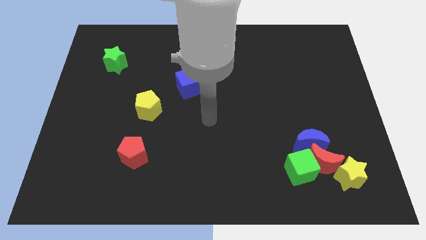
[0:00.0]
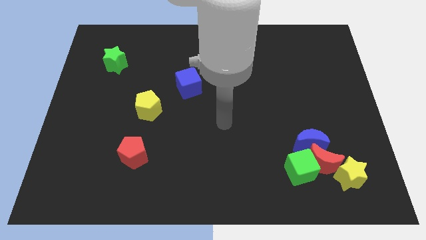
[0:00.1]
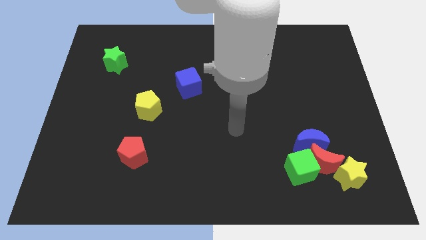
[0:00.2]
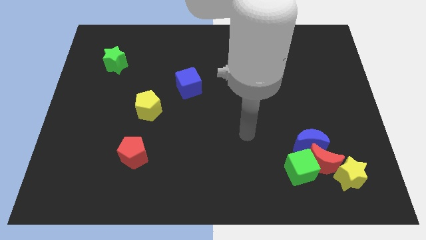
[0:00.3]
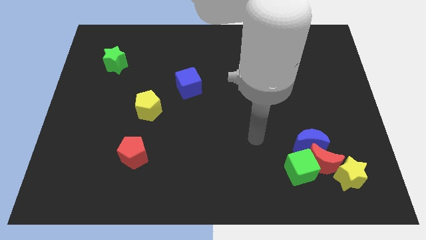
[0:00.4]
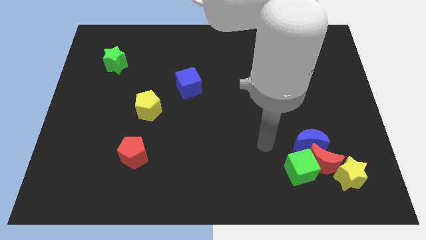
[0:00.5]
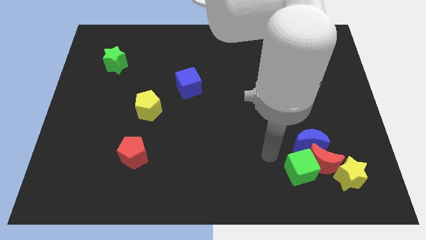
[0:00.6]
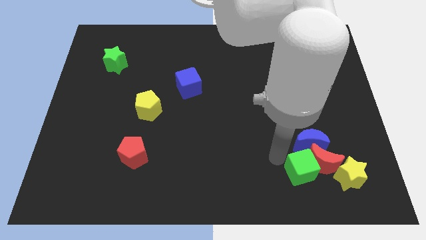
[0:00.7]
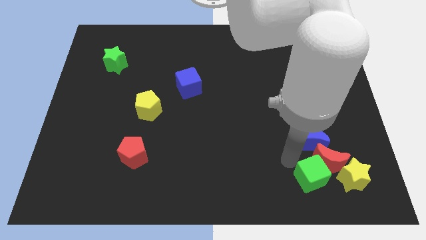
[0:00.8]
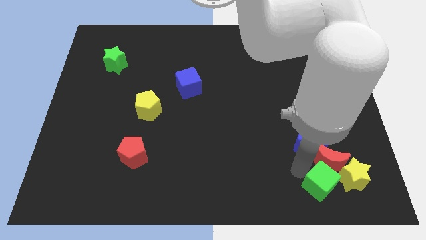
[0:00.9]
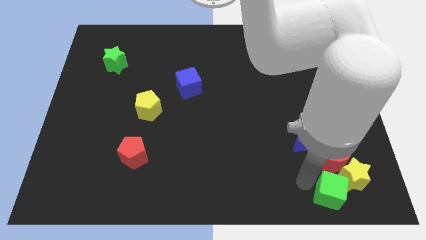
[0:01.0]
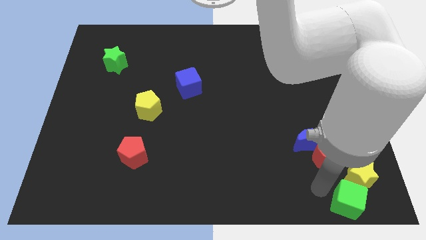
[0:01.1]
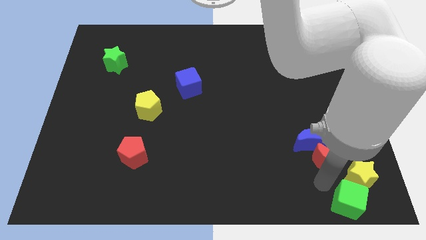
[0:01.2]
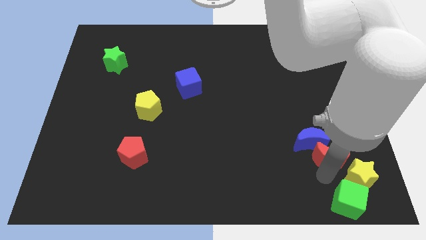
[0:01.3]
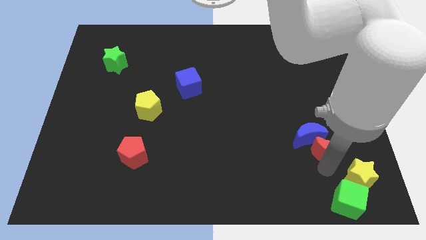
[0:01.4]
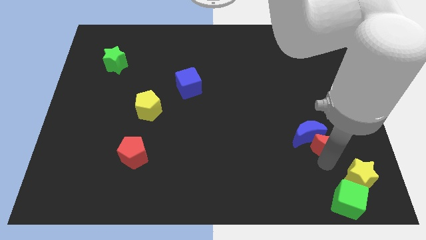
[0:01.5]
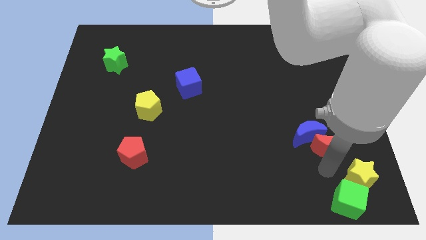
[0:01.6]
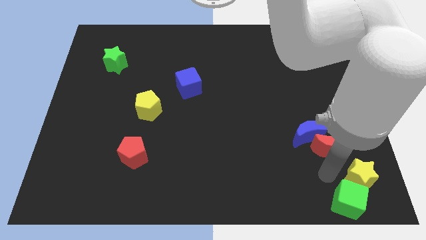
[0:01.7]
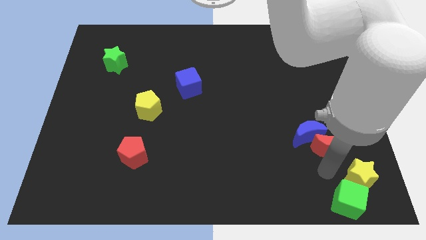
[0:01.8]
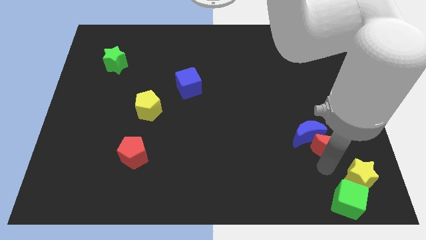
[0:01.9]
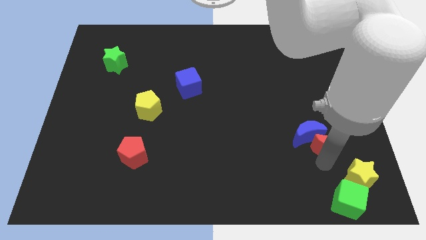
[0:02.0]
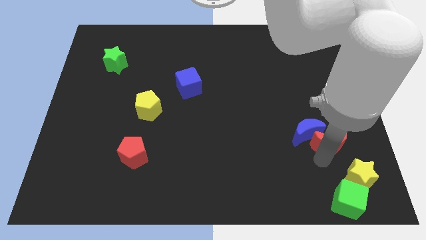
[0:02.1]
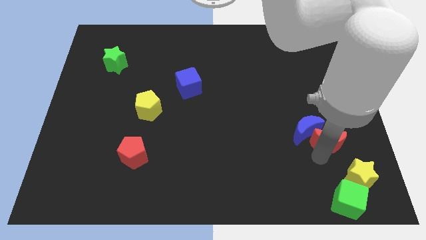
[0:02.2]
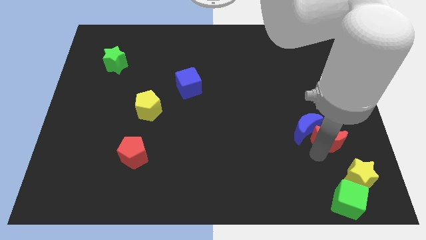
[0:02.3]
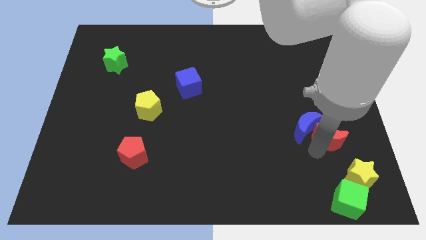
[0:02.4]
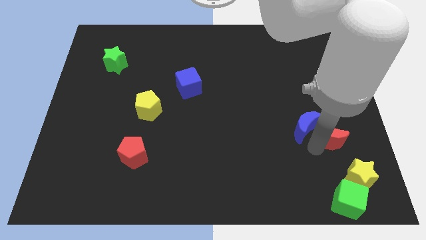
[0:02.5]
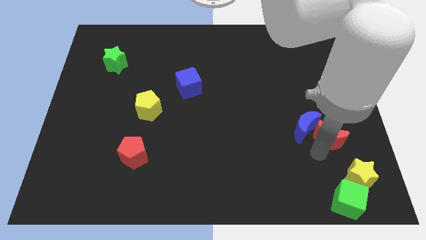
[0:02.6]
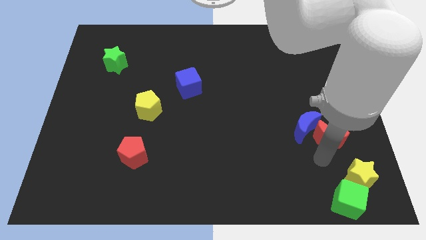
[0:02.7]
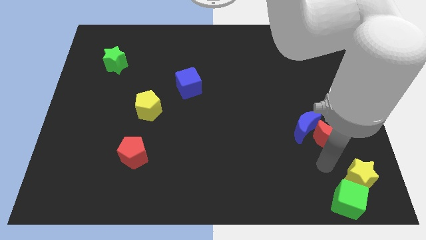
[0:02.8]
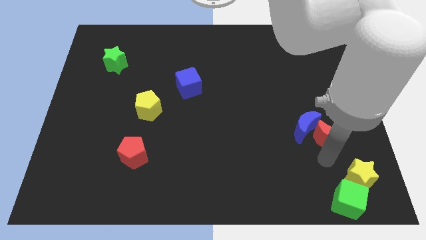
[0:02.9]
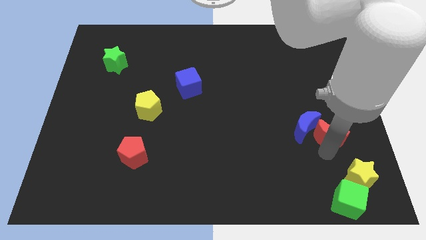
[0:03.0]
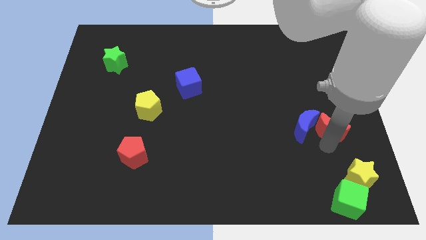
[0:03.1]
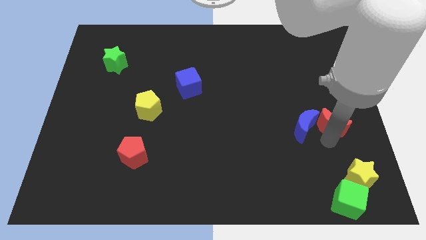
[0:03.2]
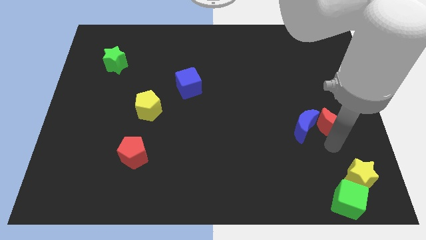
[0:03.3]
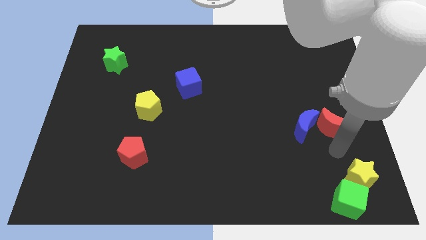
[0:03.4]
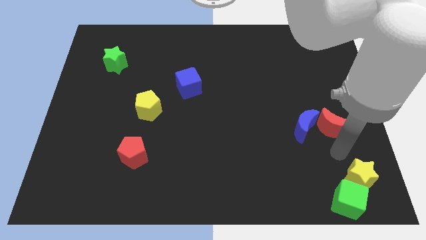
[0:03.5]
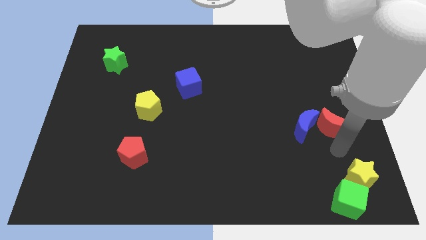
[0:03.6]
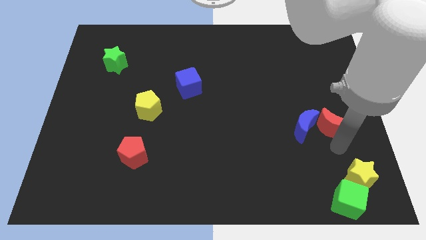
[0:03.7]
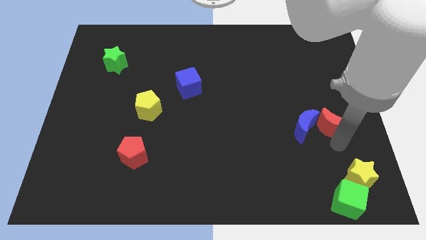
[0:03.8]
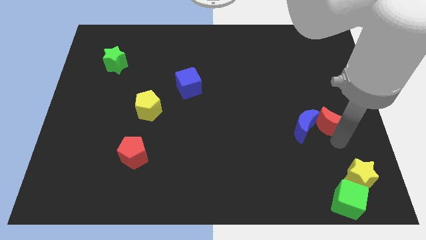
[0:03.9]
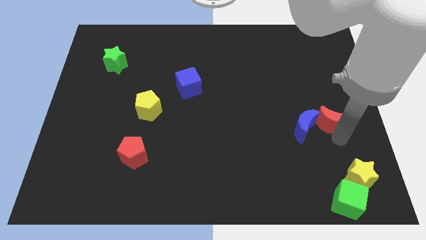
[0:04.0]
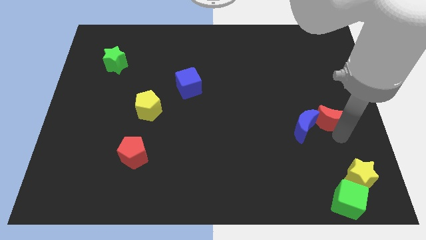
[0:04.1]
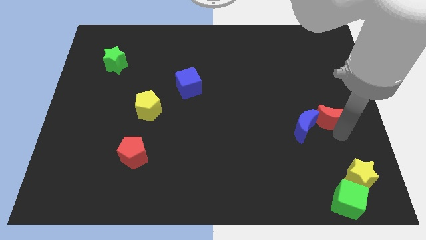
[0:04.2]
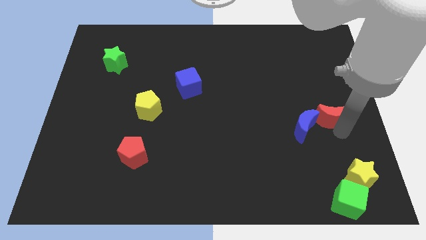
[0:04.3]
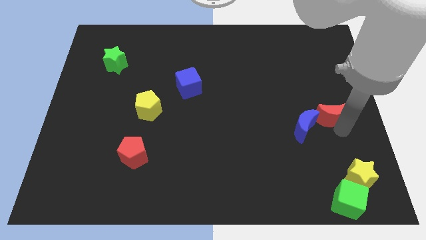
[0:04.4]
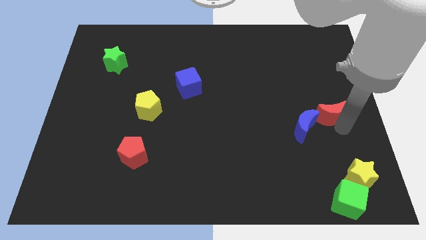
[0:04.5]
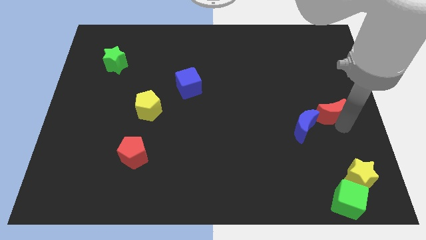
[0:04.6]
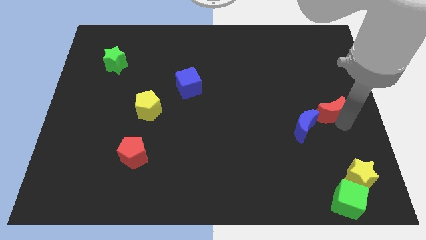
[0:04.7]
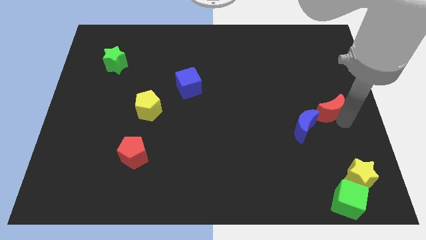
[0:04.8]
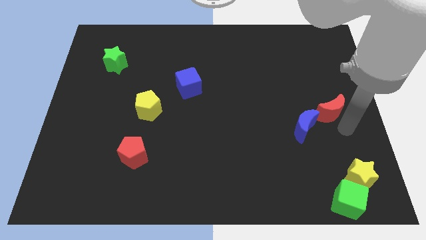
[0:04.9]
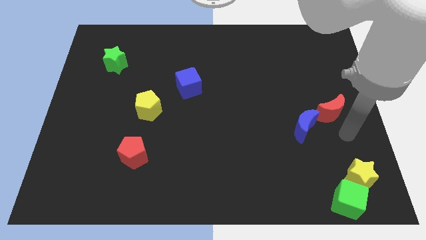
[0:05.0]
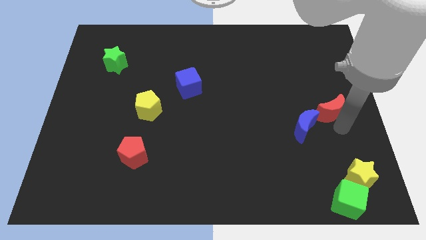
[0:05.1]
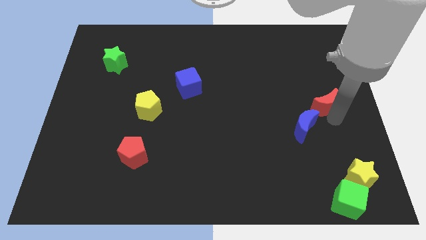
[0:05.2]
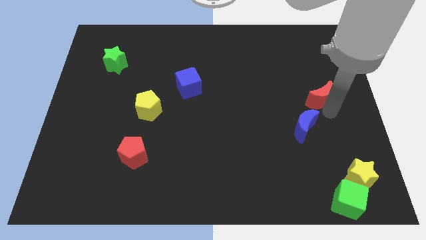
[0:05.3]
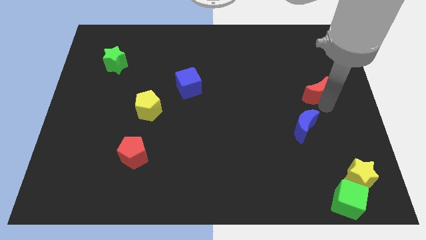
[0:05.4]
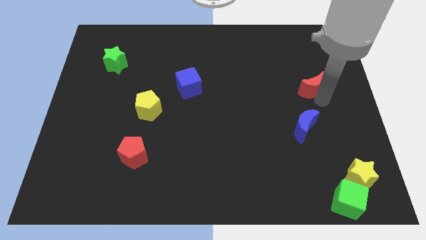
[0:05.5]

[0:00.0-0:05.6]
move the red moon up

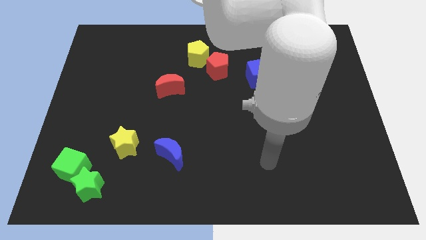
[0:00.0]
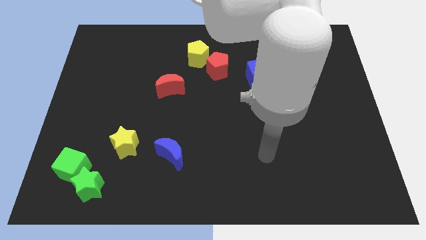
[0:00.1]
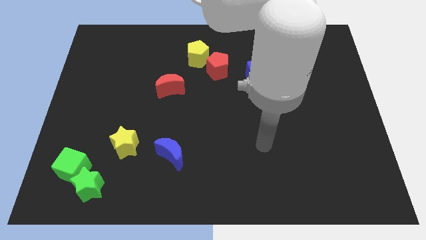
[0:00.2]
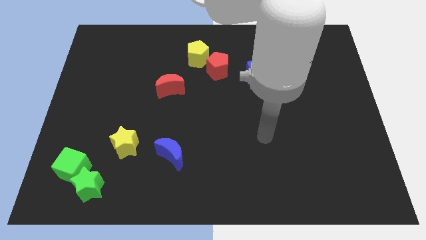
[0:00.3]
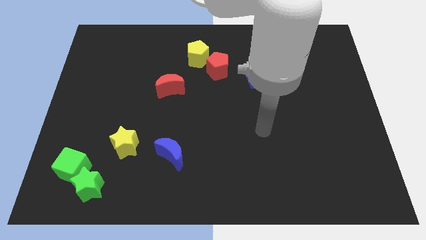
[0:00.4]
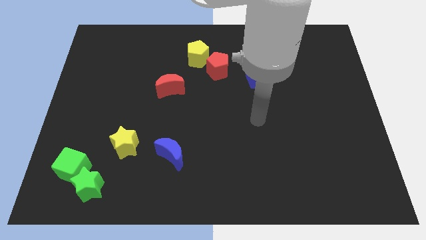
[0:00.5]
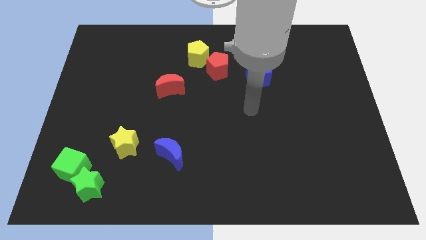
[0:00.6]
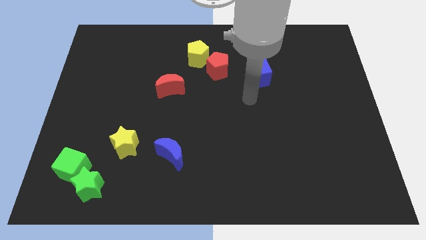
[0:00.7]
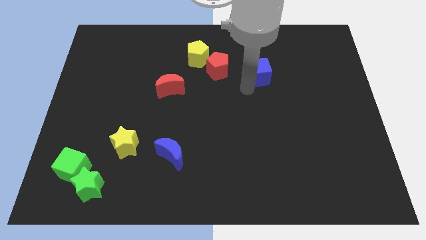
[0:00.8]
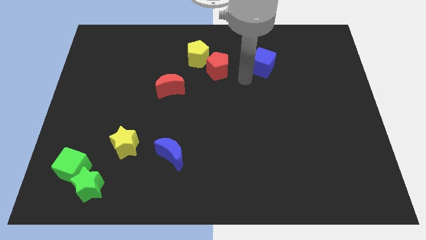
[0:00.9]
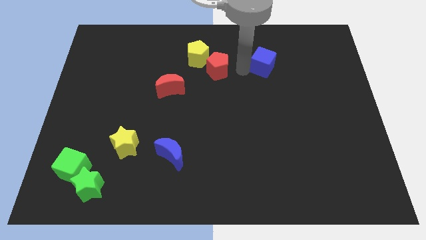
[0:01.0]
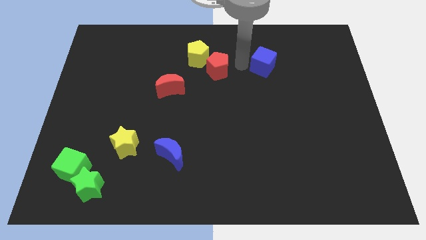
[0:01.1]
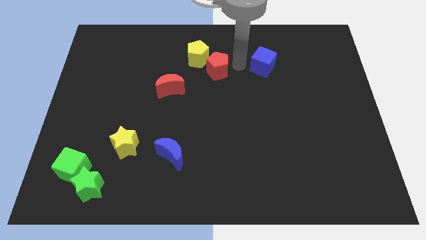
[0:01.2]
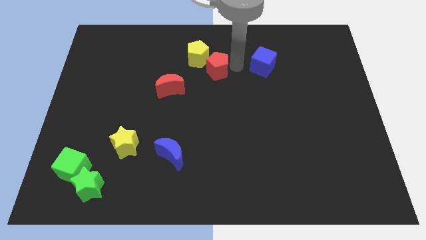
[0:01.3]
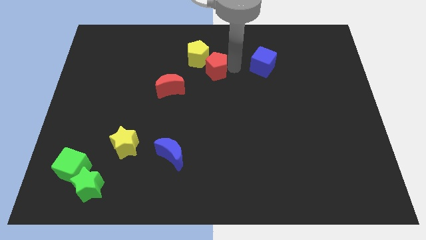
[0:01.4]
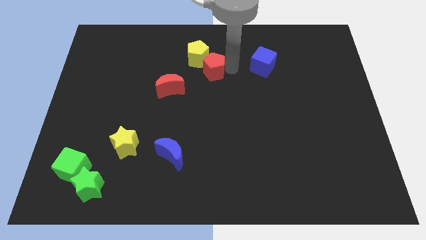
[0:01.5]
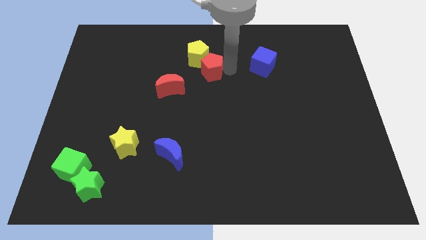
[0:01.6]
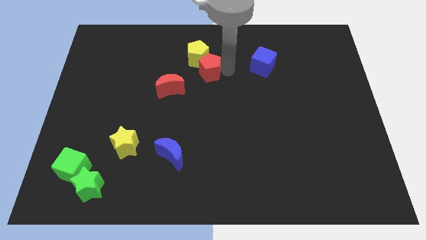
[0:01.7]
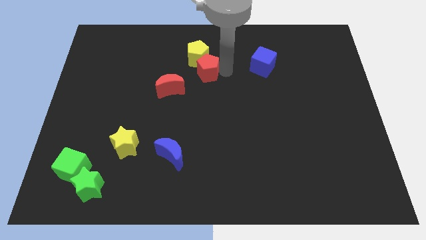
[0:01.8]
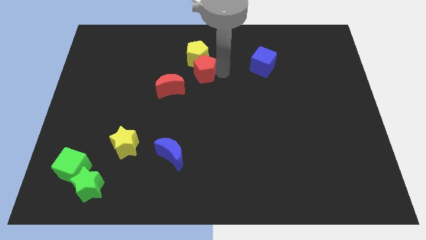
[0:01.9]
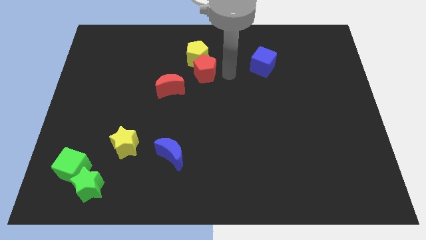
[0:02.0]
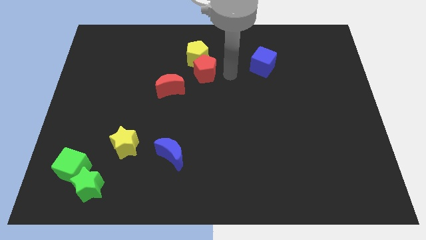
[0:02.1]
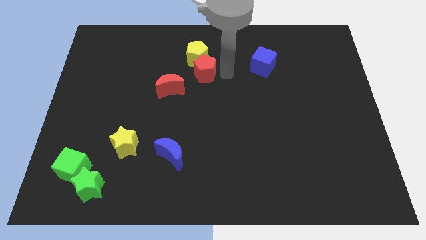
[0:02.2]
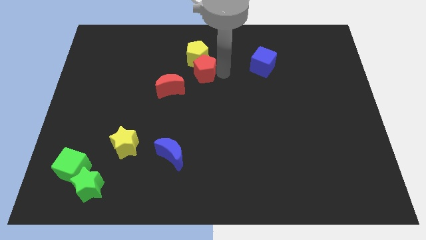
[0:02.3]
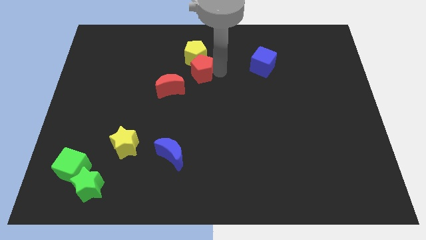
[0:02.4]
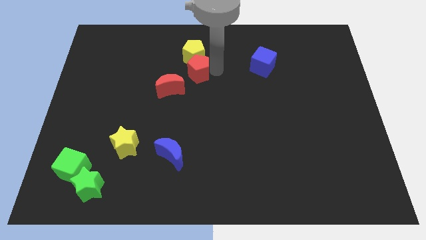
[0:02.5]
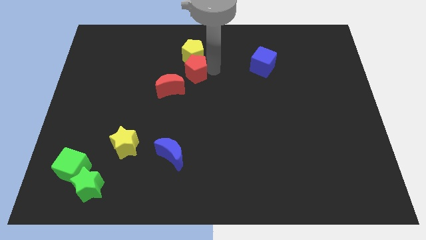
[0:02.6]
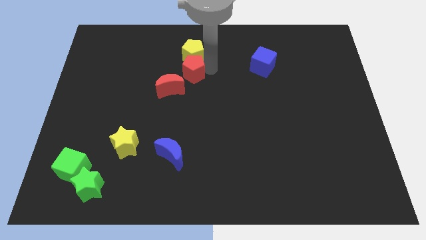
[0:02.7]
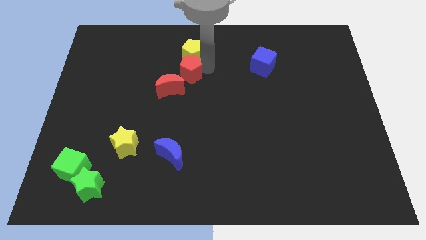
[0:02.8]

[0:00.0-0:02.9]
push the red pentagon a little bit left

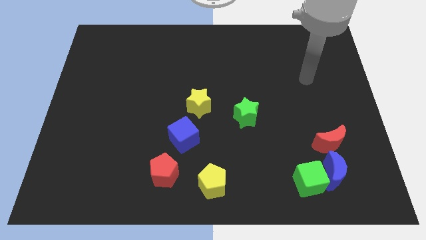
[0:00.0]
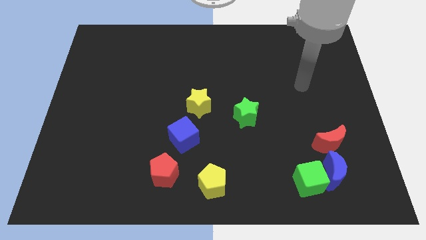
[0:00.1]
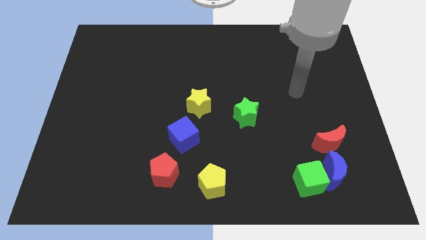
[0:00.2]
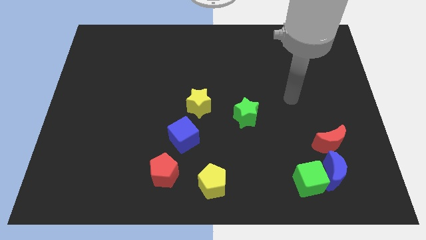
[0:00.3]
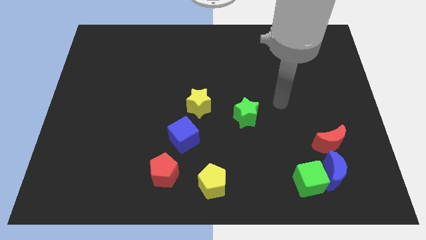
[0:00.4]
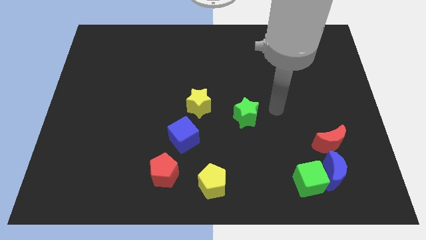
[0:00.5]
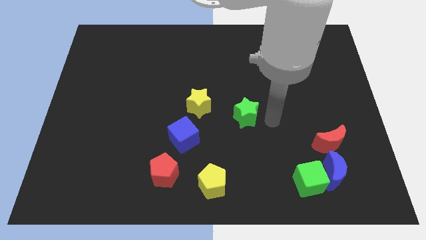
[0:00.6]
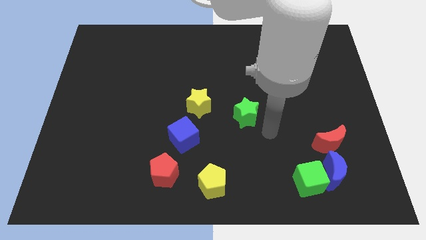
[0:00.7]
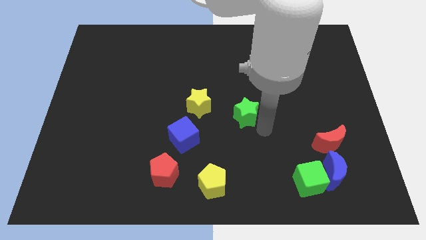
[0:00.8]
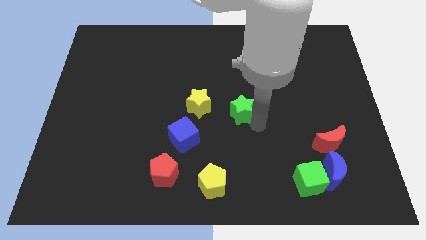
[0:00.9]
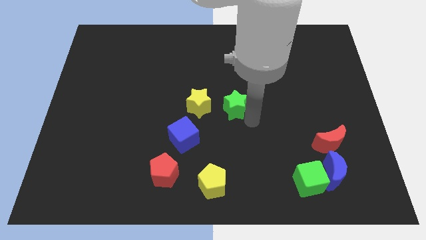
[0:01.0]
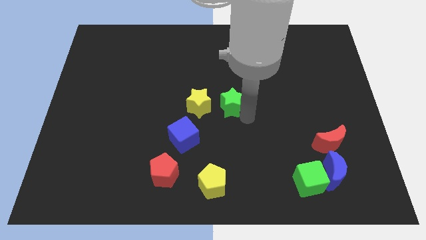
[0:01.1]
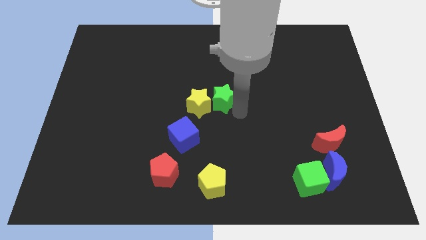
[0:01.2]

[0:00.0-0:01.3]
slide the green star a little up and then left
